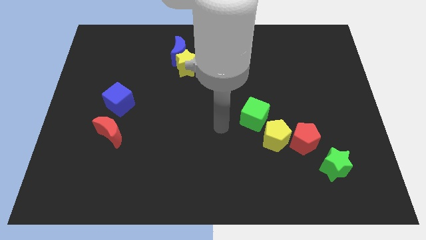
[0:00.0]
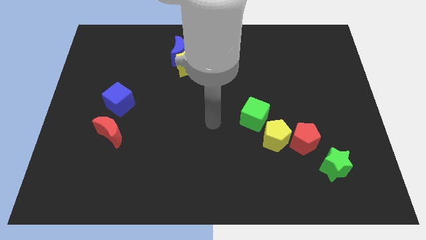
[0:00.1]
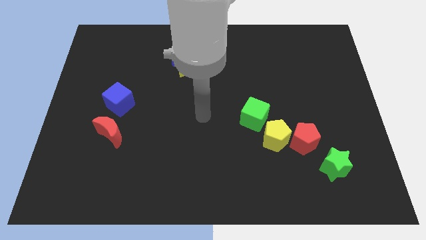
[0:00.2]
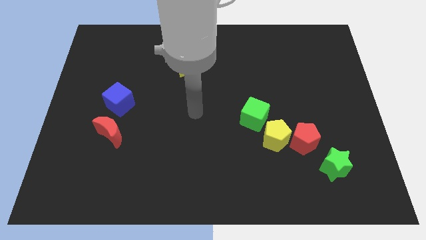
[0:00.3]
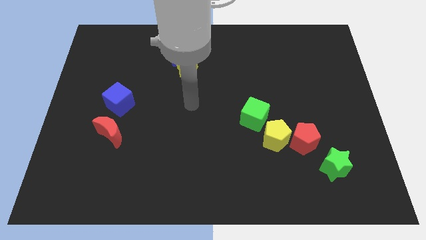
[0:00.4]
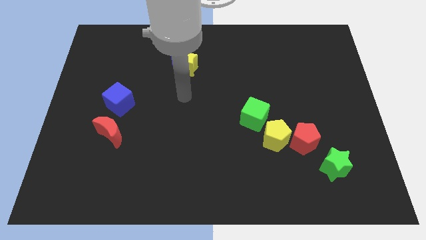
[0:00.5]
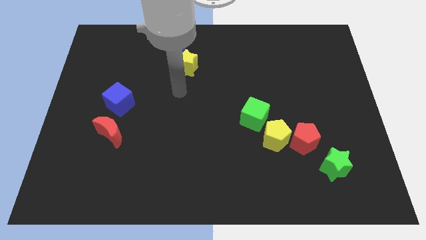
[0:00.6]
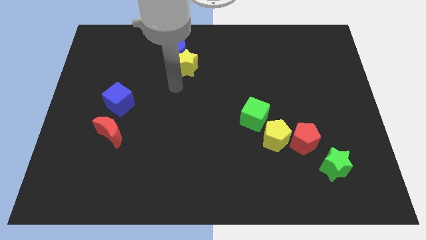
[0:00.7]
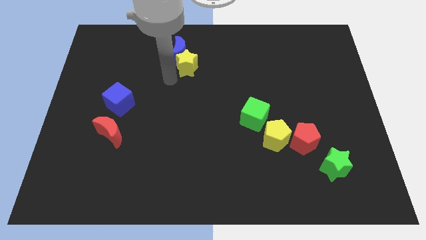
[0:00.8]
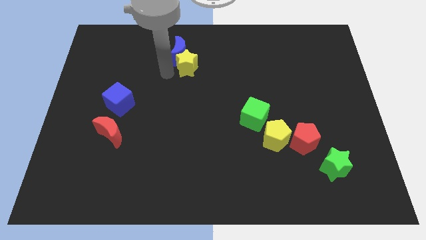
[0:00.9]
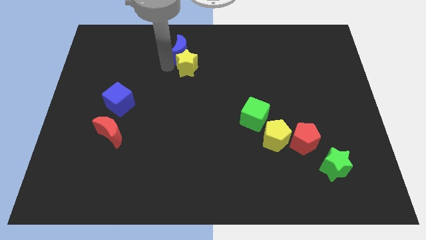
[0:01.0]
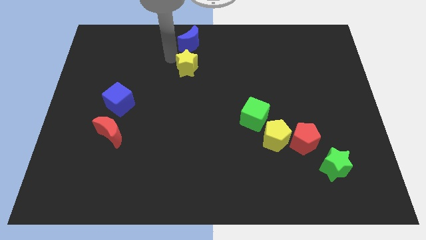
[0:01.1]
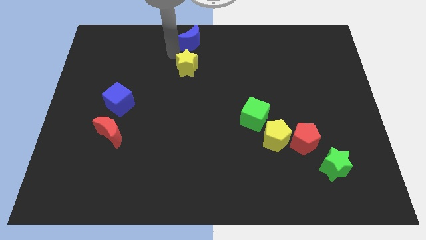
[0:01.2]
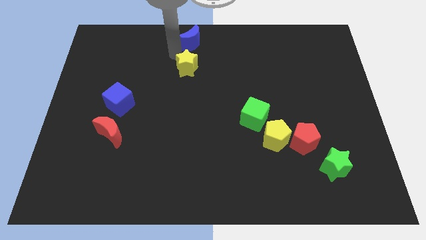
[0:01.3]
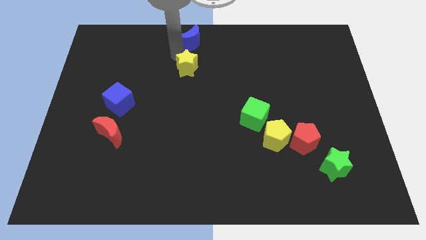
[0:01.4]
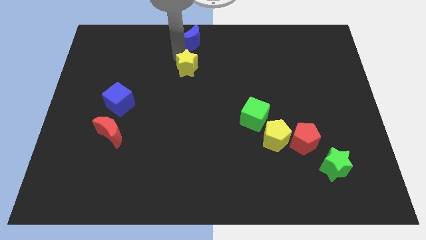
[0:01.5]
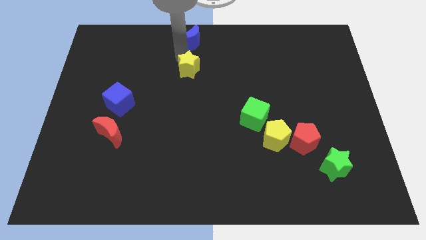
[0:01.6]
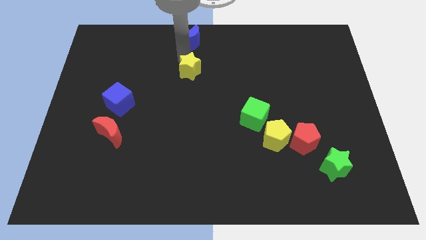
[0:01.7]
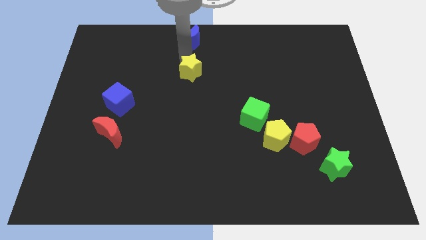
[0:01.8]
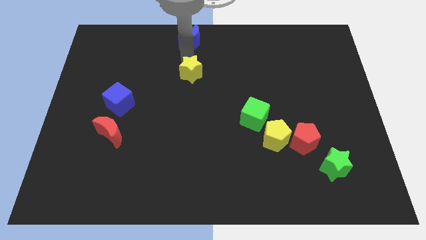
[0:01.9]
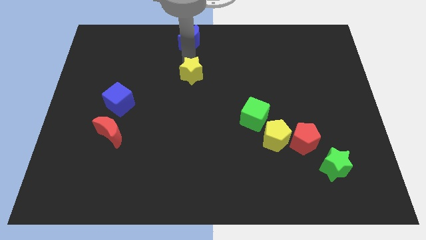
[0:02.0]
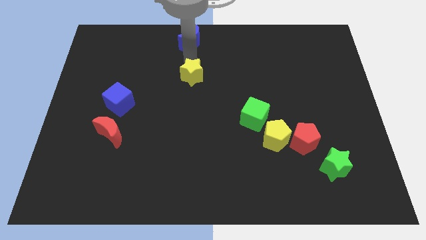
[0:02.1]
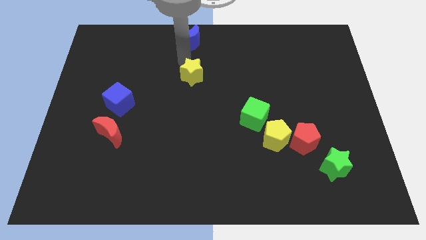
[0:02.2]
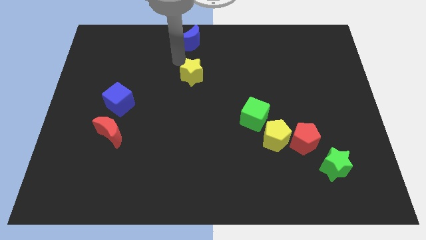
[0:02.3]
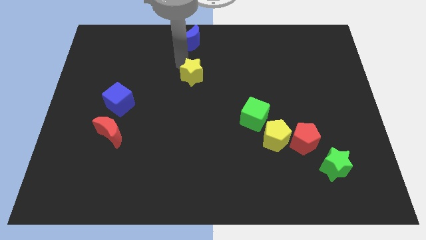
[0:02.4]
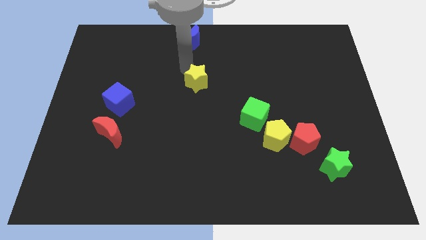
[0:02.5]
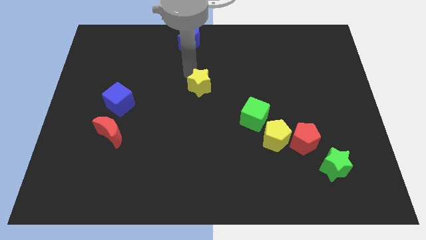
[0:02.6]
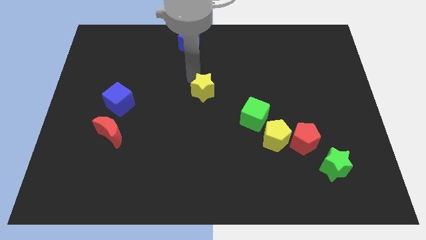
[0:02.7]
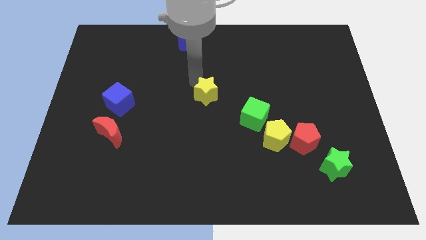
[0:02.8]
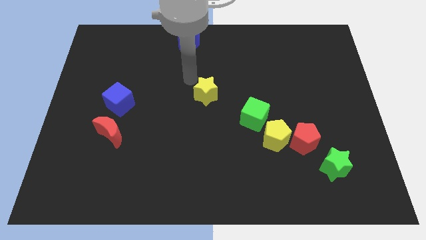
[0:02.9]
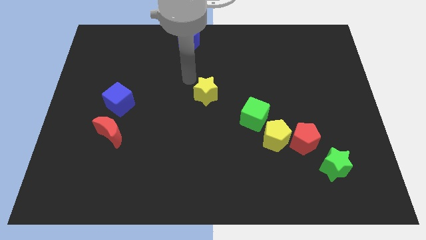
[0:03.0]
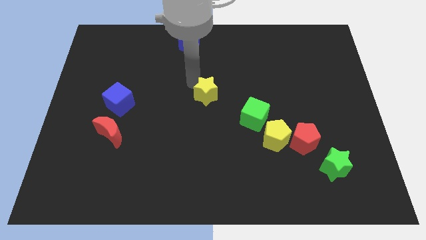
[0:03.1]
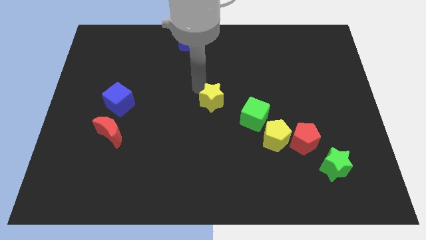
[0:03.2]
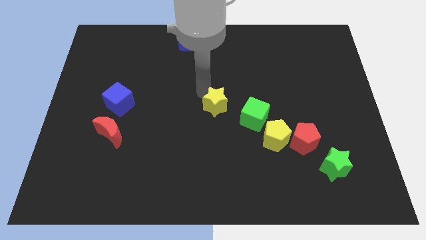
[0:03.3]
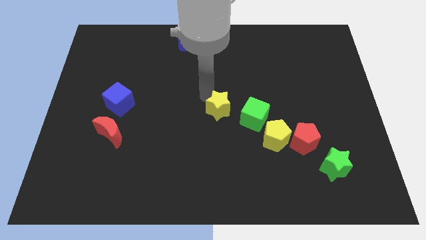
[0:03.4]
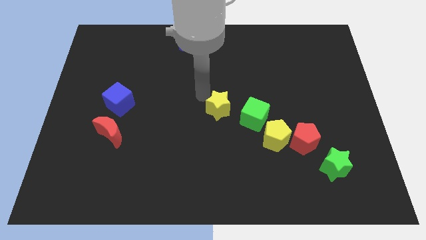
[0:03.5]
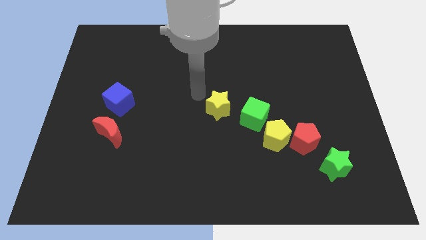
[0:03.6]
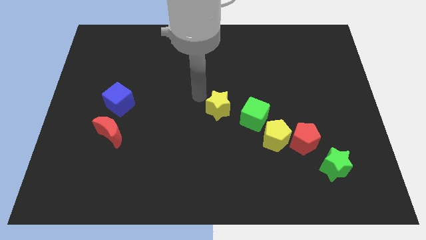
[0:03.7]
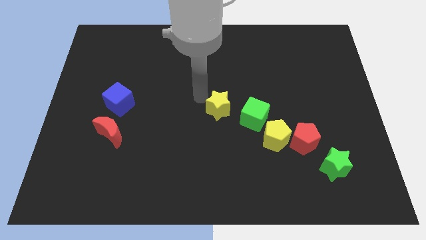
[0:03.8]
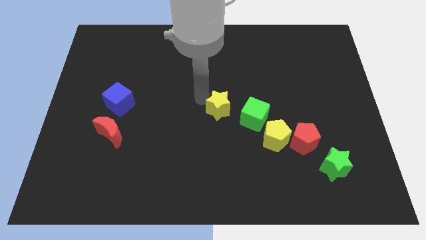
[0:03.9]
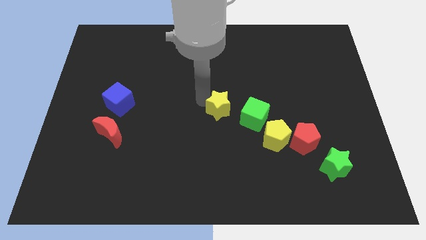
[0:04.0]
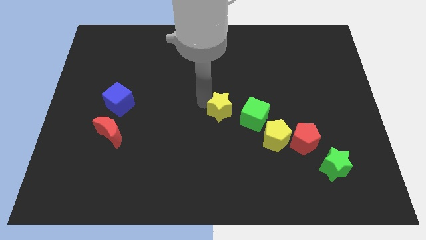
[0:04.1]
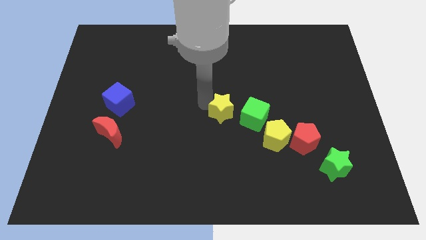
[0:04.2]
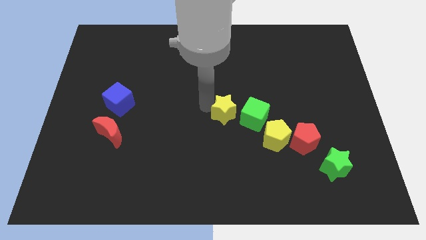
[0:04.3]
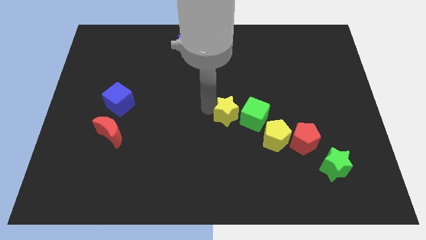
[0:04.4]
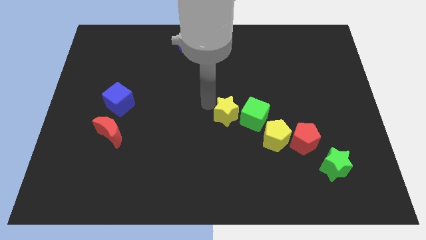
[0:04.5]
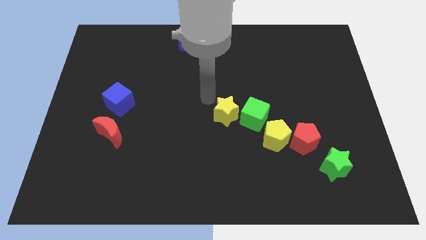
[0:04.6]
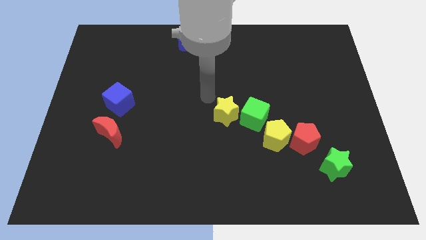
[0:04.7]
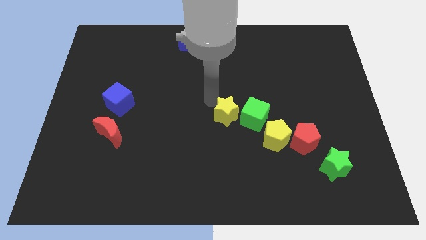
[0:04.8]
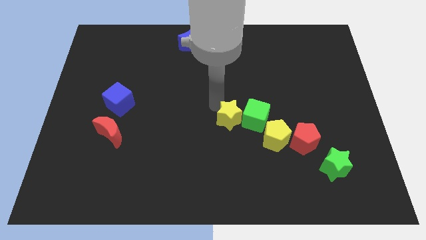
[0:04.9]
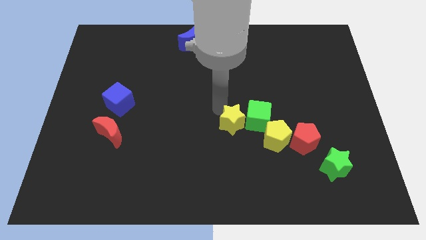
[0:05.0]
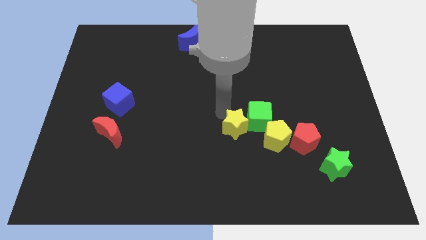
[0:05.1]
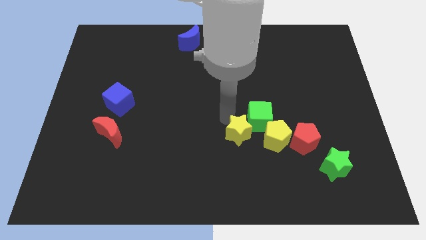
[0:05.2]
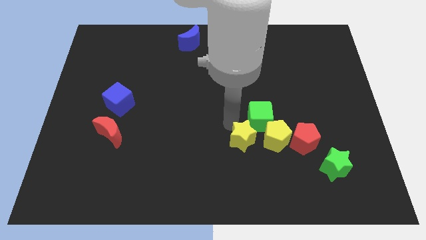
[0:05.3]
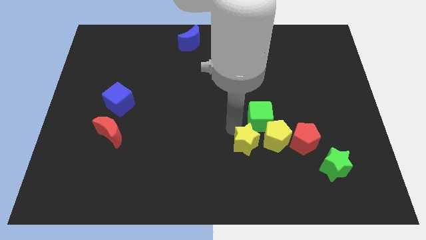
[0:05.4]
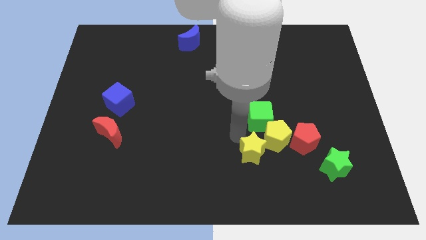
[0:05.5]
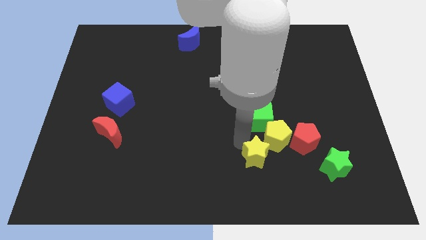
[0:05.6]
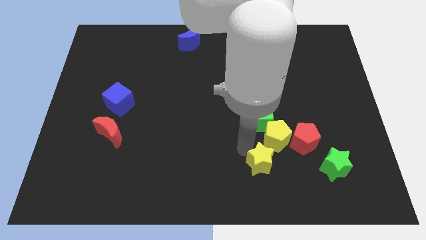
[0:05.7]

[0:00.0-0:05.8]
push the yellow star to the bottom left of the red pentagon

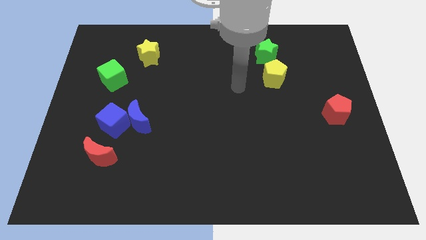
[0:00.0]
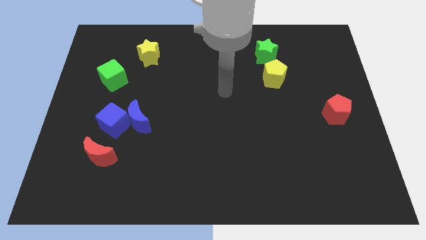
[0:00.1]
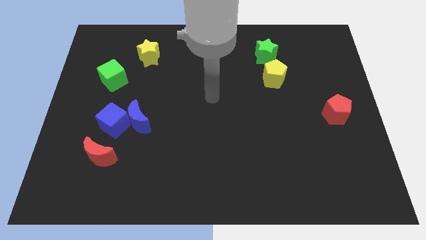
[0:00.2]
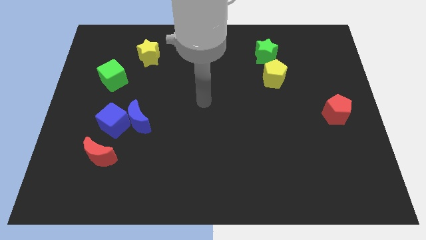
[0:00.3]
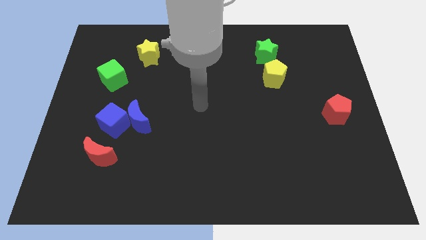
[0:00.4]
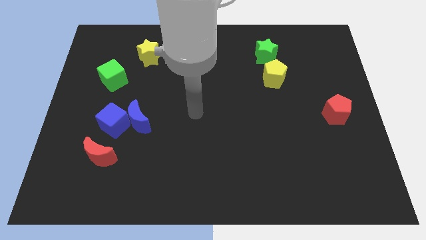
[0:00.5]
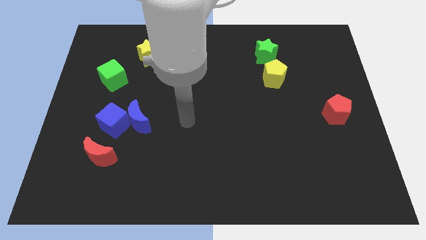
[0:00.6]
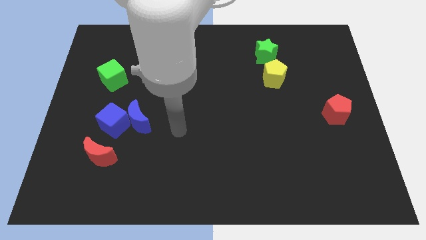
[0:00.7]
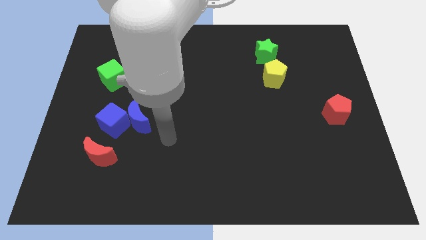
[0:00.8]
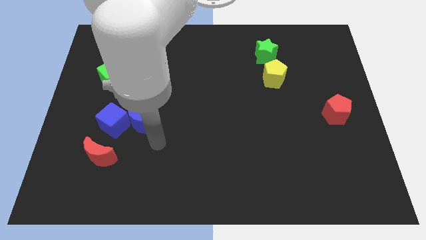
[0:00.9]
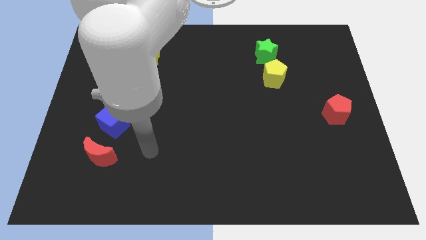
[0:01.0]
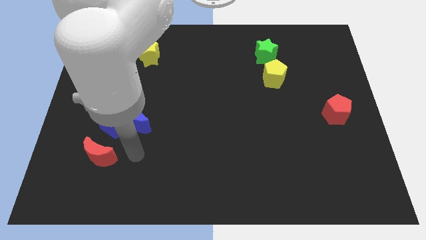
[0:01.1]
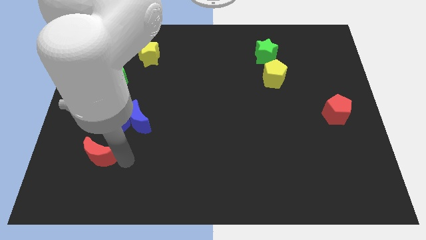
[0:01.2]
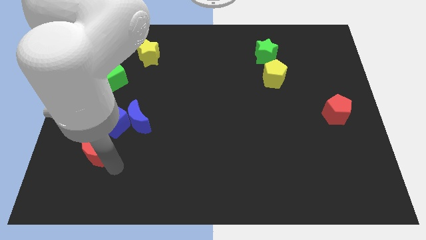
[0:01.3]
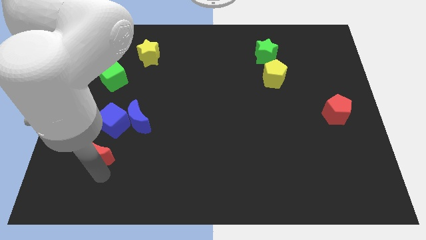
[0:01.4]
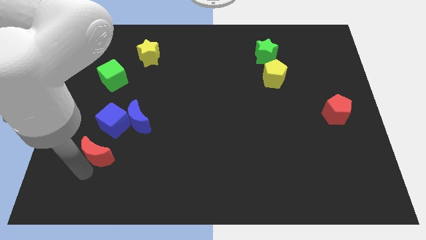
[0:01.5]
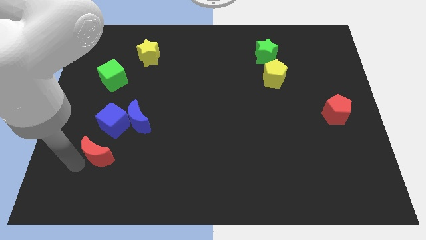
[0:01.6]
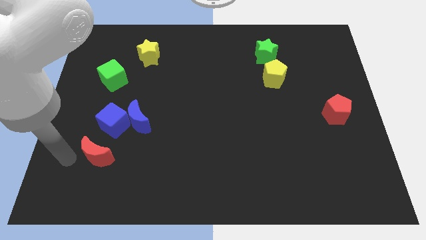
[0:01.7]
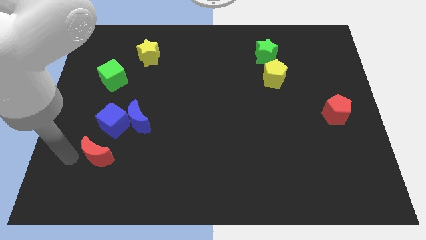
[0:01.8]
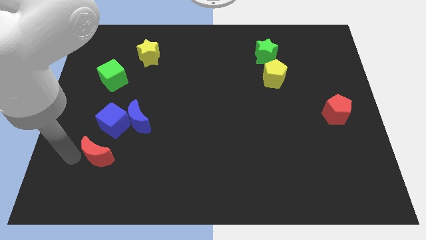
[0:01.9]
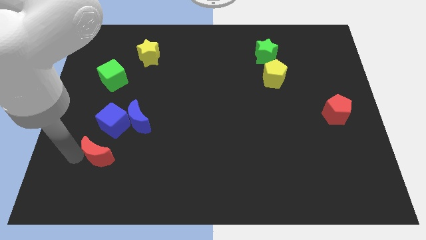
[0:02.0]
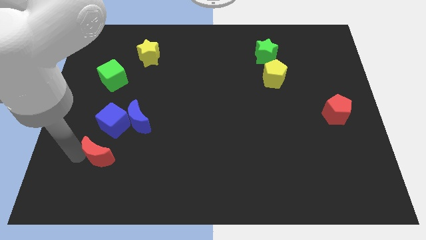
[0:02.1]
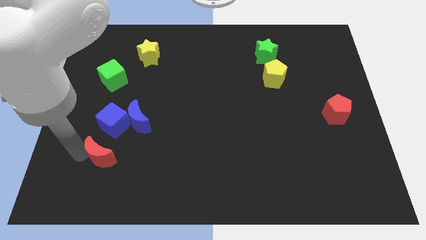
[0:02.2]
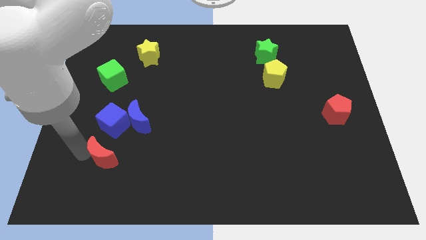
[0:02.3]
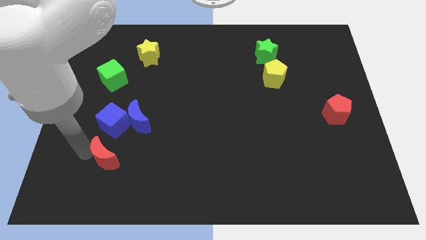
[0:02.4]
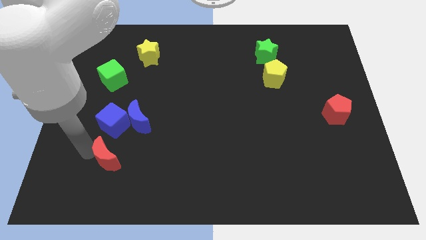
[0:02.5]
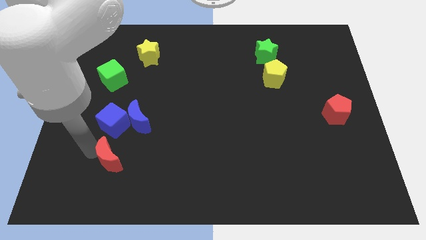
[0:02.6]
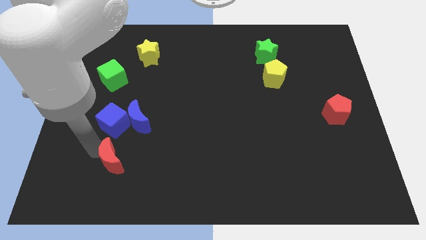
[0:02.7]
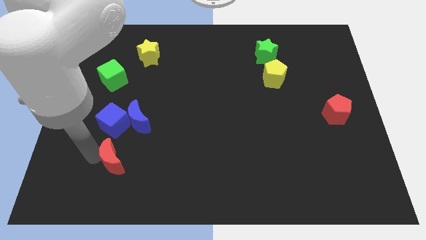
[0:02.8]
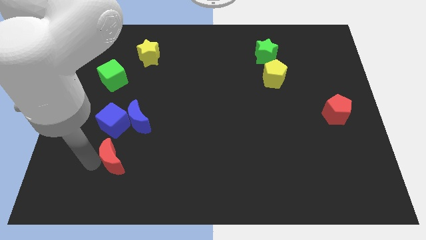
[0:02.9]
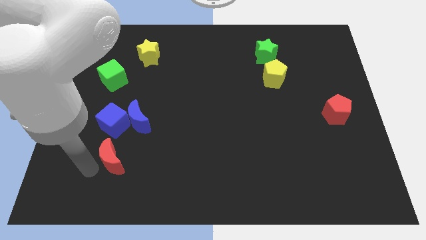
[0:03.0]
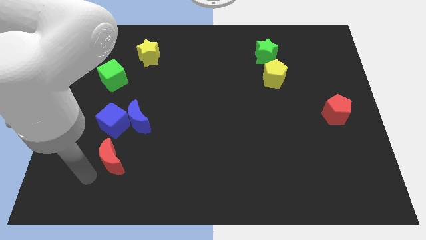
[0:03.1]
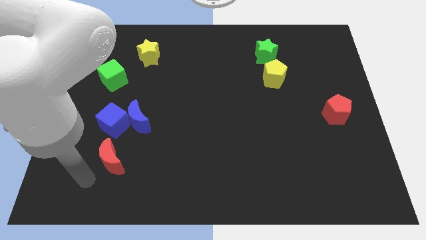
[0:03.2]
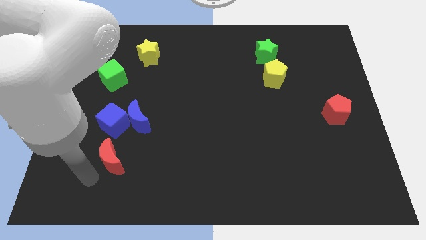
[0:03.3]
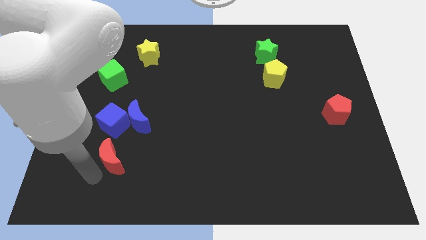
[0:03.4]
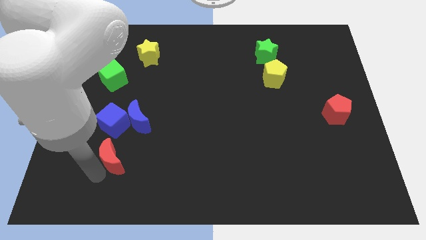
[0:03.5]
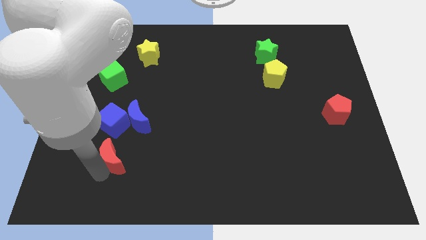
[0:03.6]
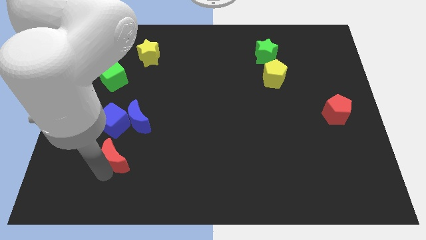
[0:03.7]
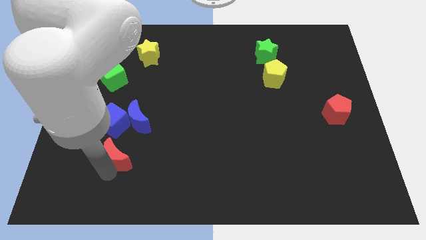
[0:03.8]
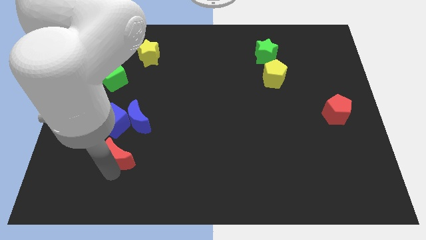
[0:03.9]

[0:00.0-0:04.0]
move the red moon diagonally down and to the right of the blue cube
